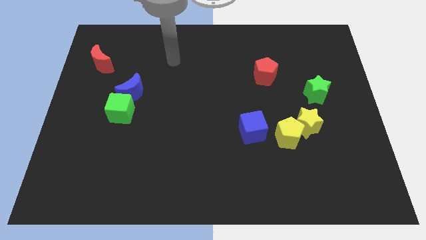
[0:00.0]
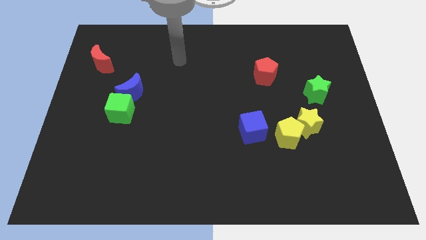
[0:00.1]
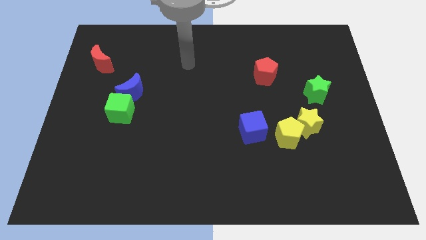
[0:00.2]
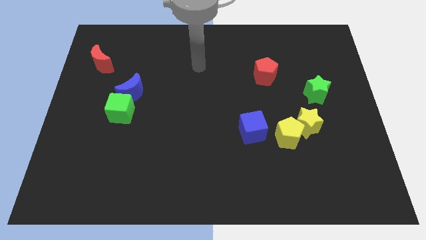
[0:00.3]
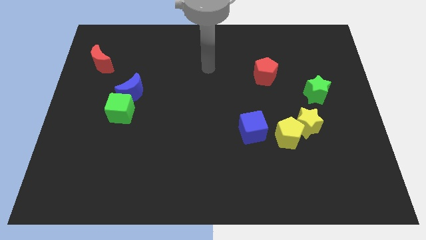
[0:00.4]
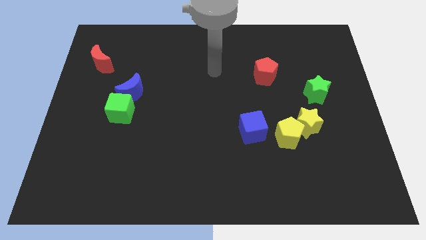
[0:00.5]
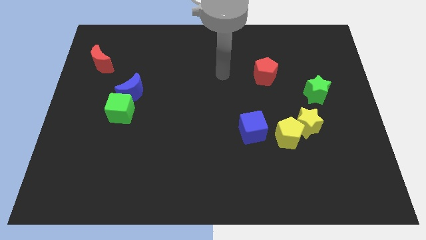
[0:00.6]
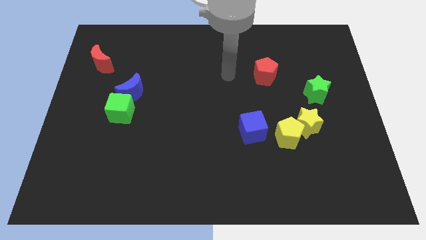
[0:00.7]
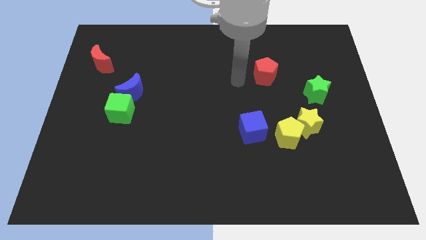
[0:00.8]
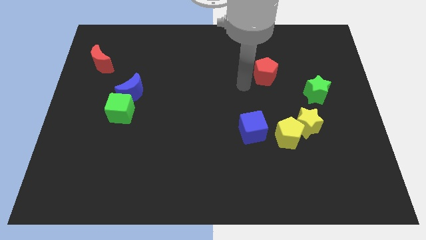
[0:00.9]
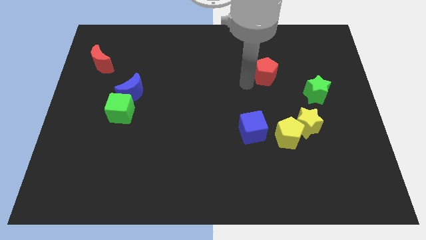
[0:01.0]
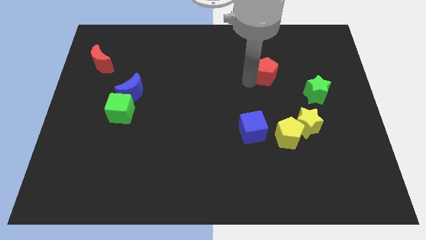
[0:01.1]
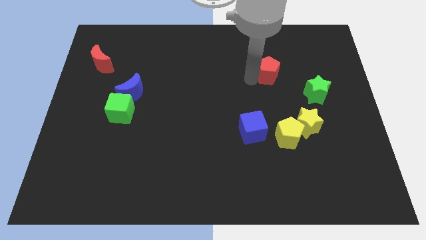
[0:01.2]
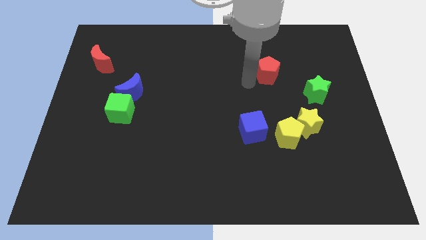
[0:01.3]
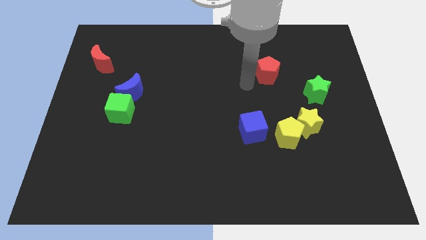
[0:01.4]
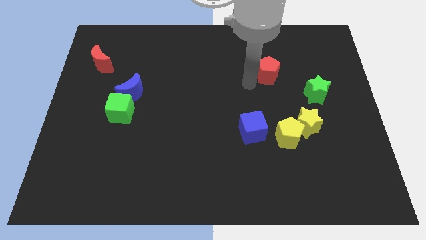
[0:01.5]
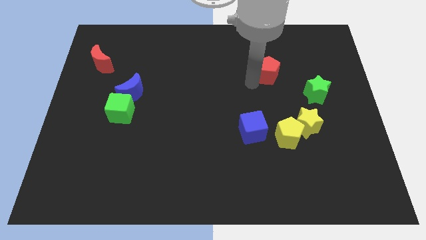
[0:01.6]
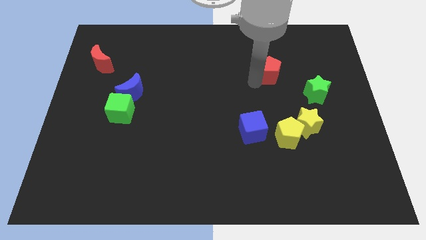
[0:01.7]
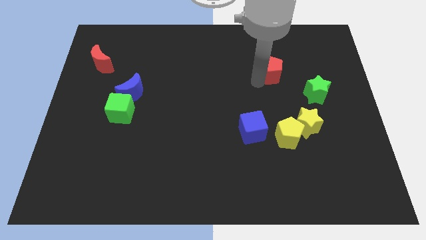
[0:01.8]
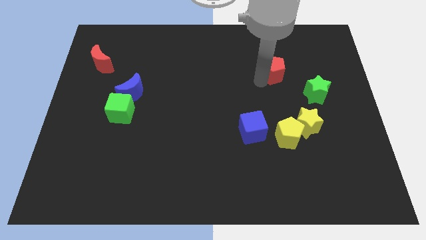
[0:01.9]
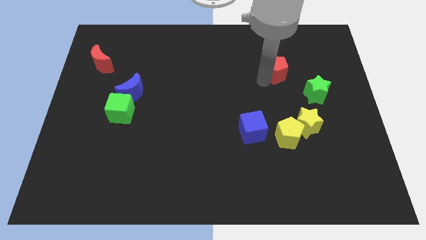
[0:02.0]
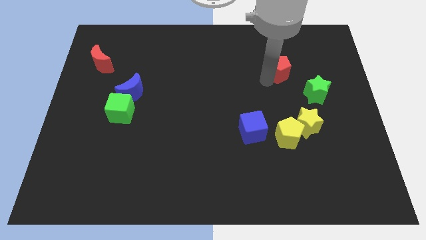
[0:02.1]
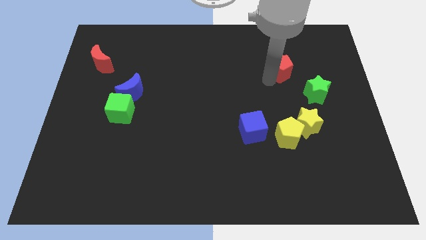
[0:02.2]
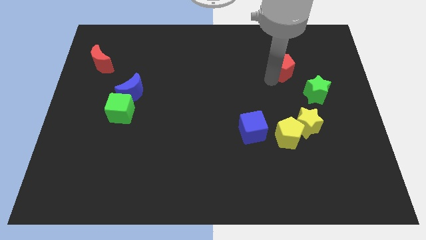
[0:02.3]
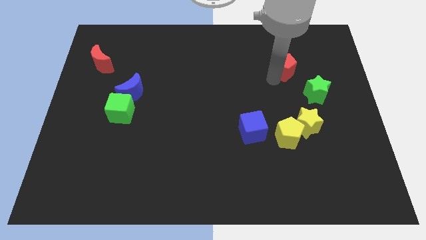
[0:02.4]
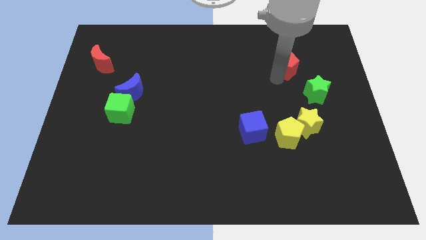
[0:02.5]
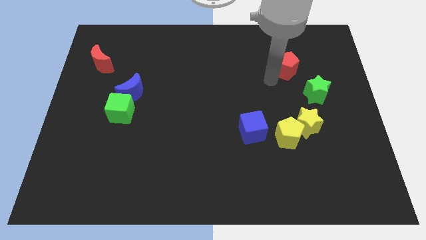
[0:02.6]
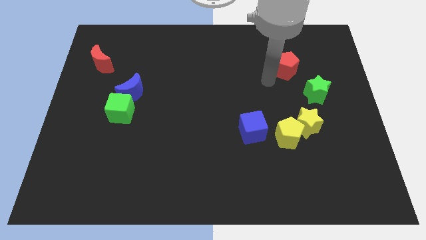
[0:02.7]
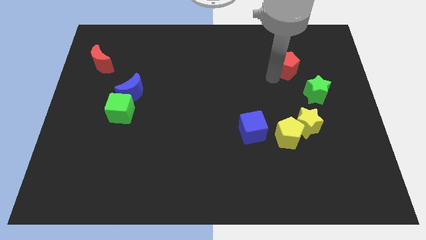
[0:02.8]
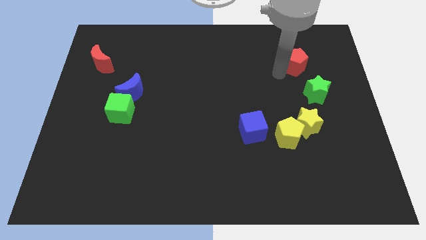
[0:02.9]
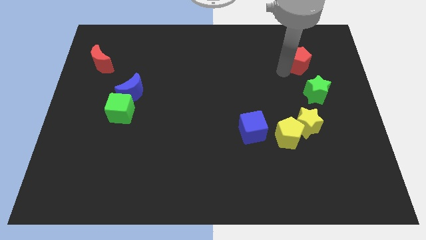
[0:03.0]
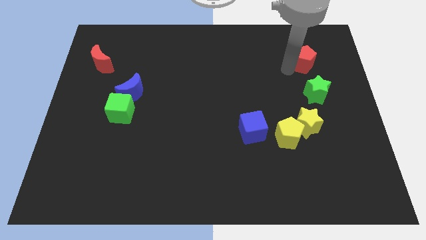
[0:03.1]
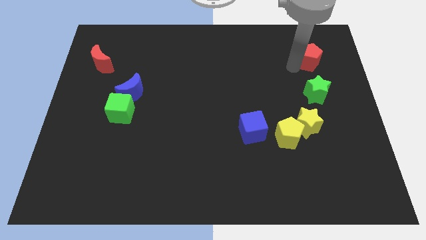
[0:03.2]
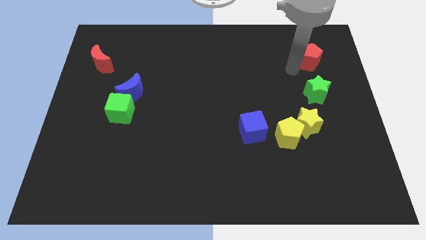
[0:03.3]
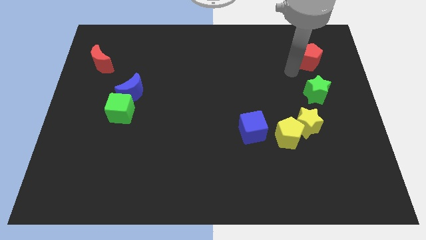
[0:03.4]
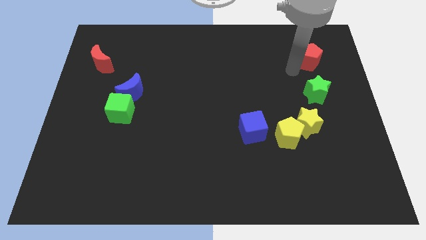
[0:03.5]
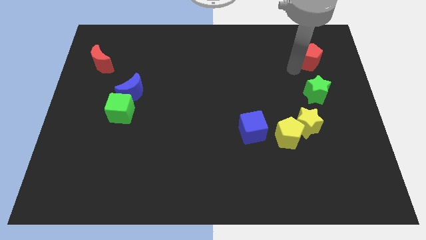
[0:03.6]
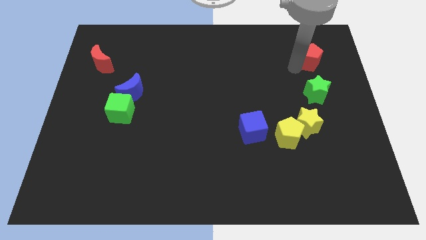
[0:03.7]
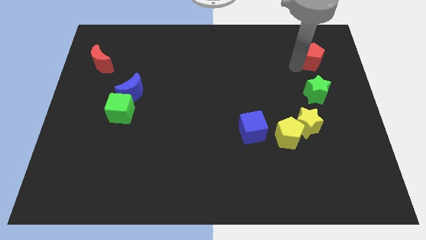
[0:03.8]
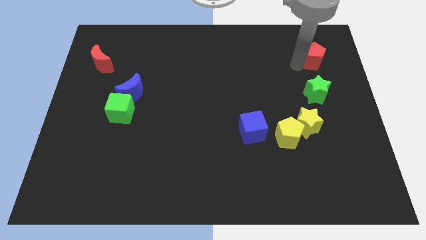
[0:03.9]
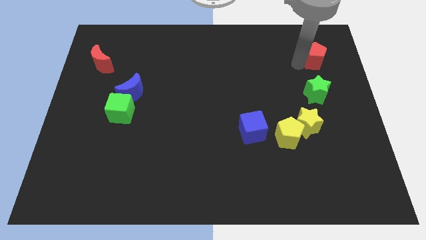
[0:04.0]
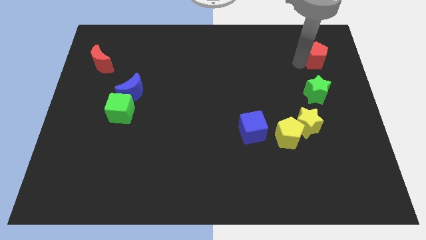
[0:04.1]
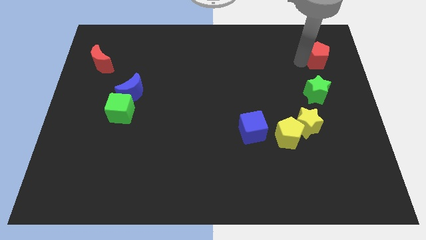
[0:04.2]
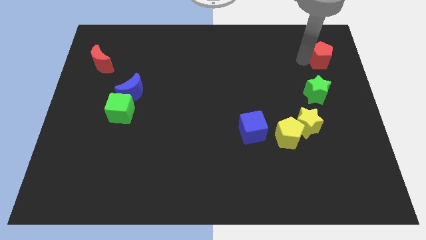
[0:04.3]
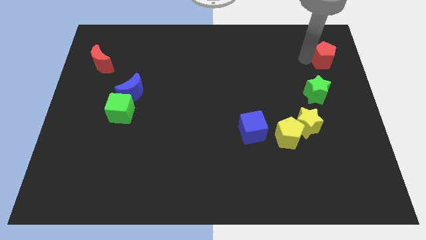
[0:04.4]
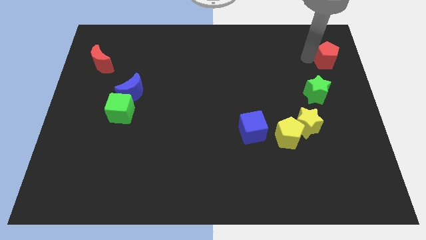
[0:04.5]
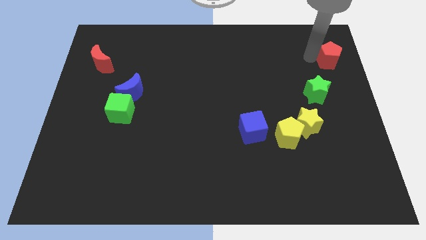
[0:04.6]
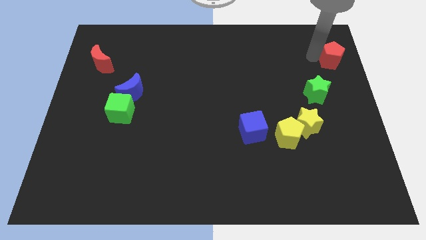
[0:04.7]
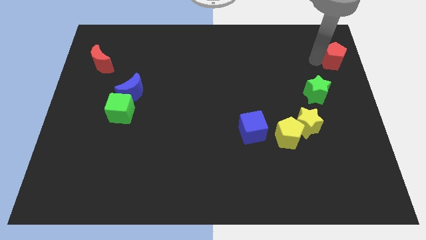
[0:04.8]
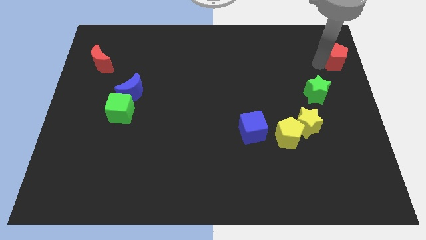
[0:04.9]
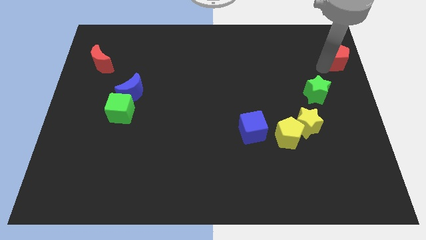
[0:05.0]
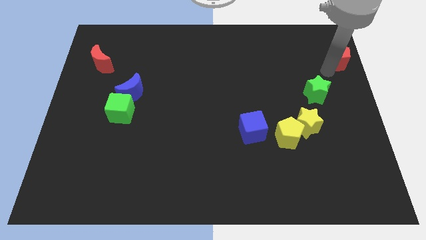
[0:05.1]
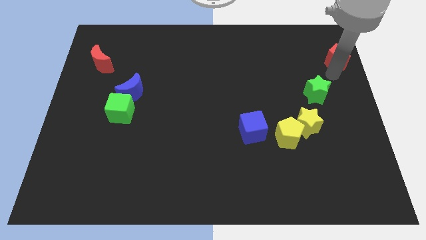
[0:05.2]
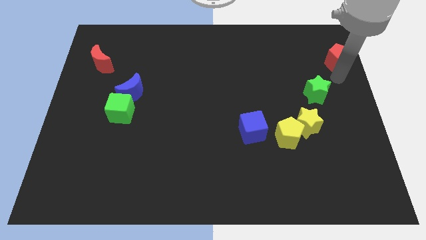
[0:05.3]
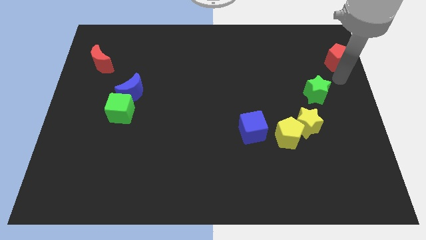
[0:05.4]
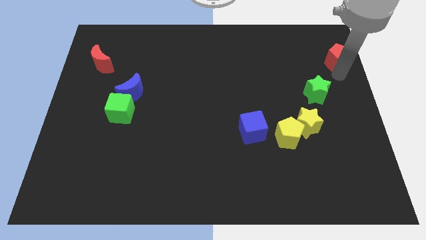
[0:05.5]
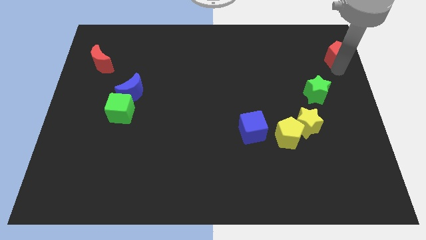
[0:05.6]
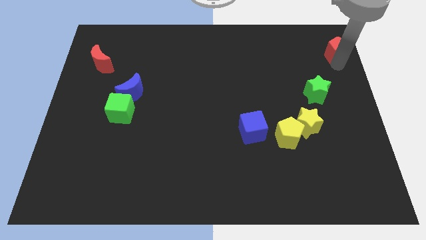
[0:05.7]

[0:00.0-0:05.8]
put the red pentagon to the top right corner
